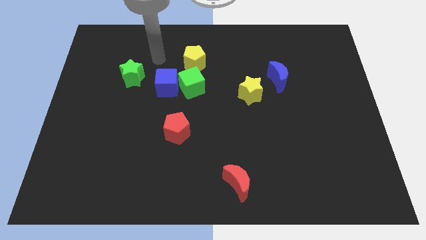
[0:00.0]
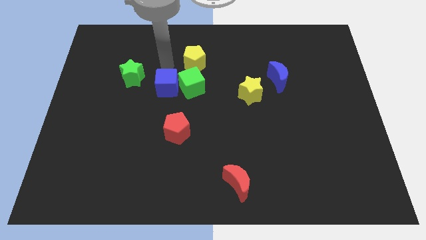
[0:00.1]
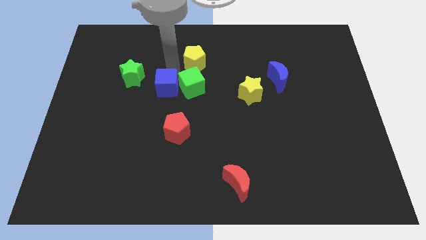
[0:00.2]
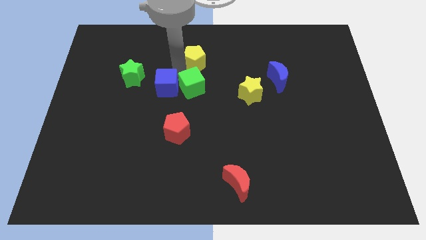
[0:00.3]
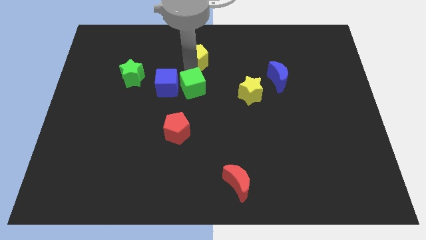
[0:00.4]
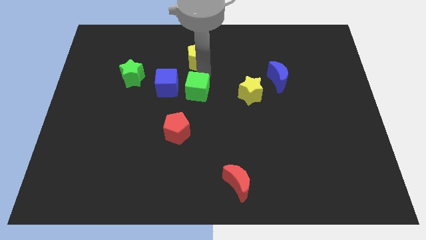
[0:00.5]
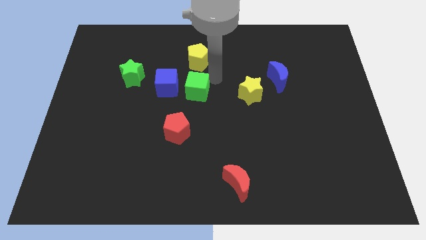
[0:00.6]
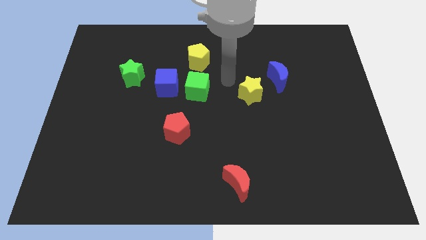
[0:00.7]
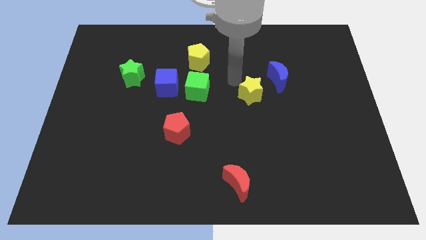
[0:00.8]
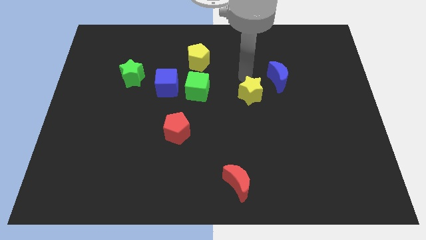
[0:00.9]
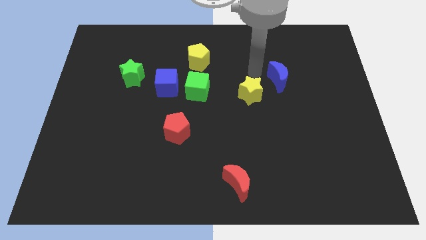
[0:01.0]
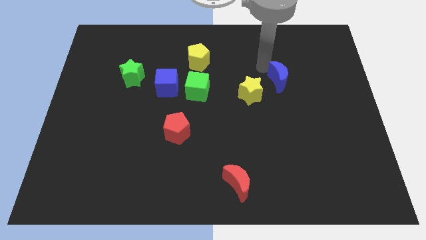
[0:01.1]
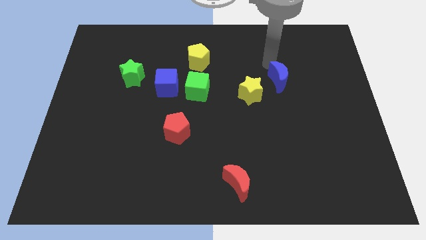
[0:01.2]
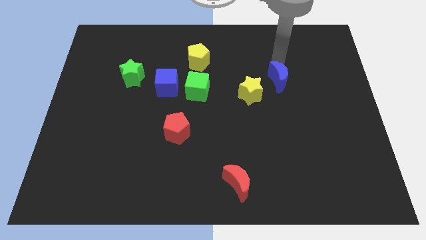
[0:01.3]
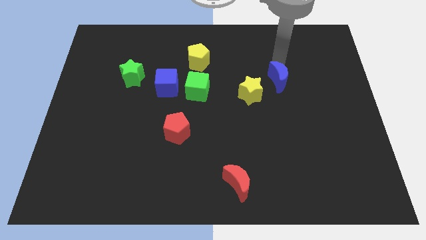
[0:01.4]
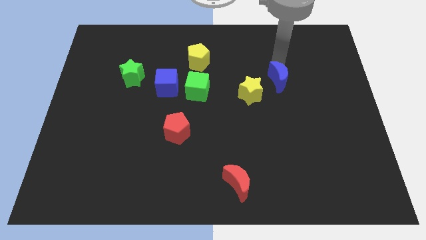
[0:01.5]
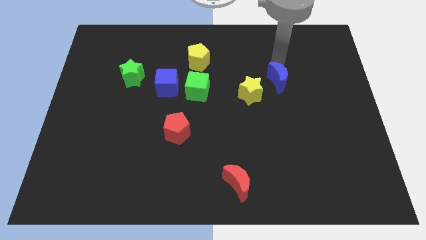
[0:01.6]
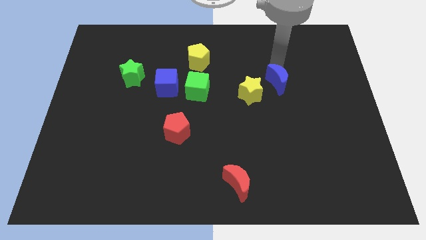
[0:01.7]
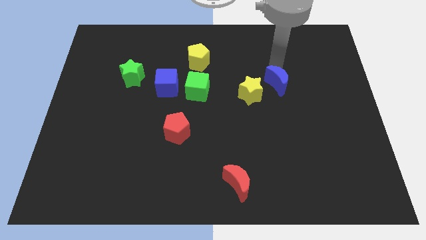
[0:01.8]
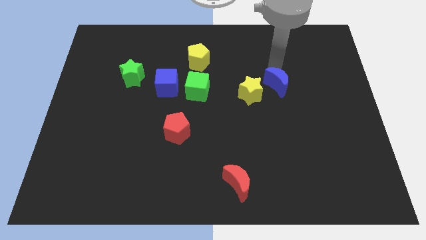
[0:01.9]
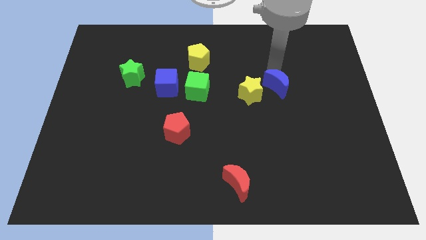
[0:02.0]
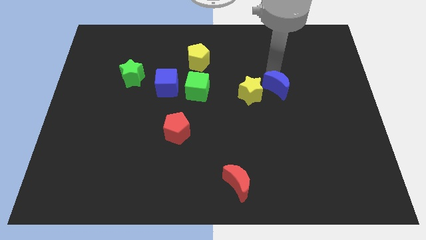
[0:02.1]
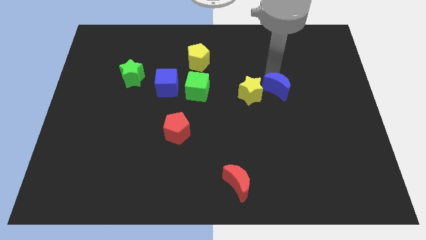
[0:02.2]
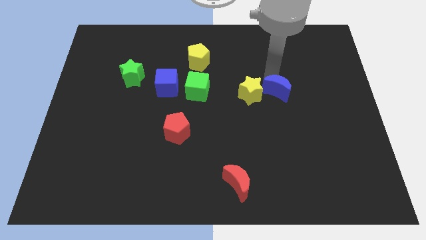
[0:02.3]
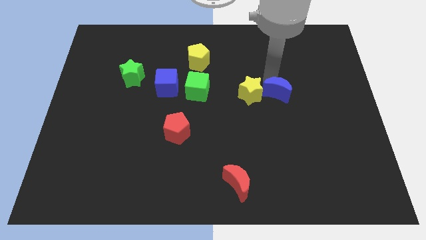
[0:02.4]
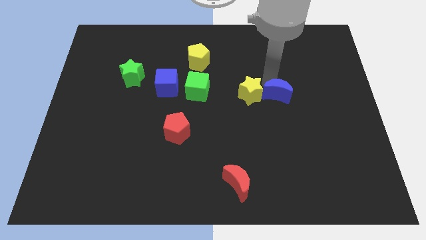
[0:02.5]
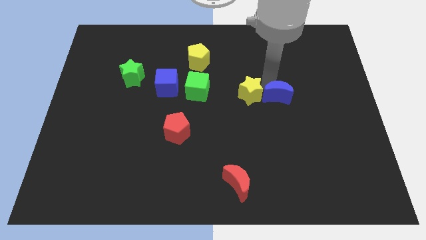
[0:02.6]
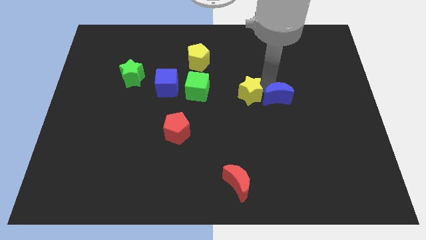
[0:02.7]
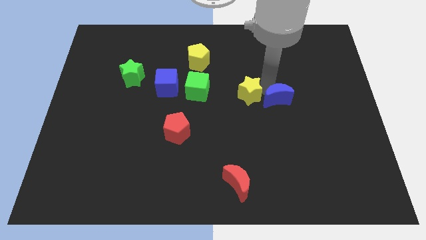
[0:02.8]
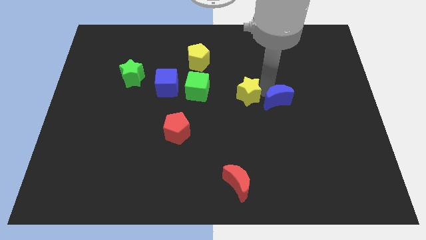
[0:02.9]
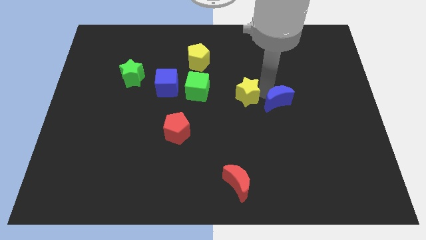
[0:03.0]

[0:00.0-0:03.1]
slightly push the blue moon down

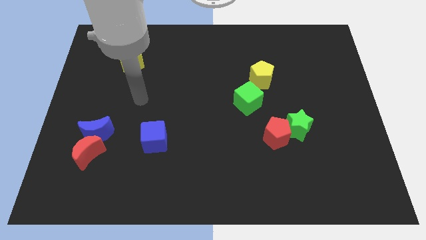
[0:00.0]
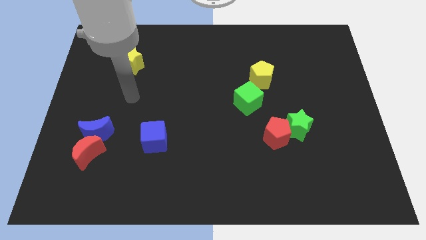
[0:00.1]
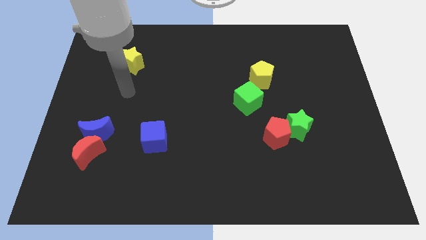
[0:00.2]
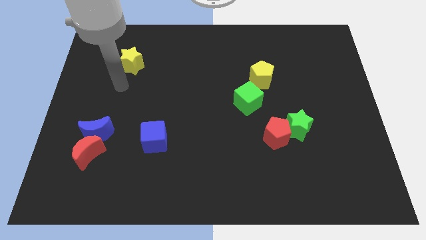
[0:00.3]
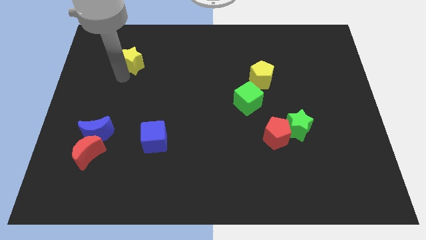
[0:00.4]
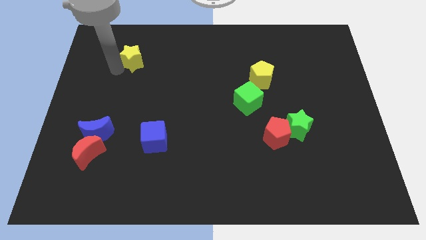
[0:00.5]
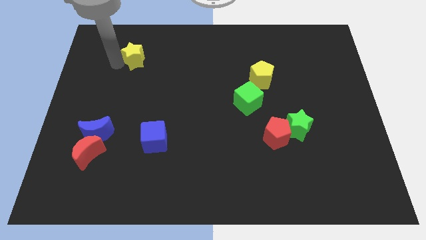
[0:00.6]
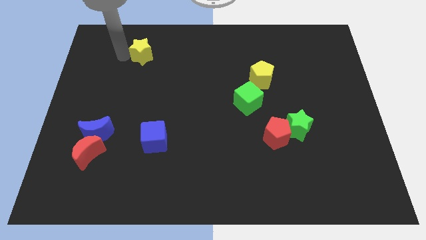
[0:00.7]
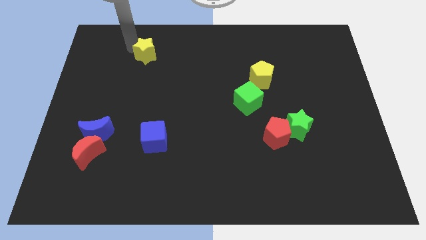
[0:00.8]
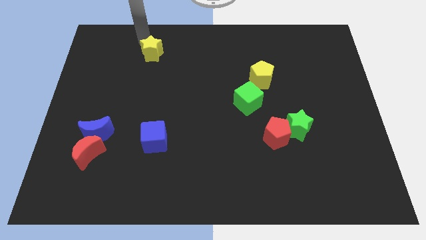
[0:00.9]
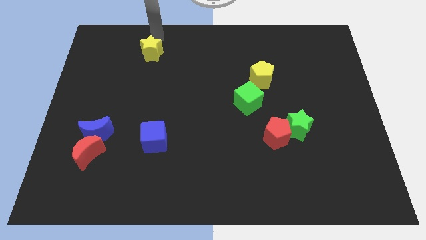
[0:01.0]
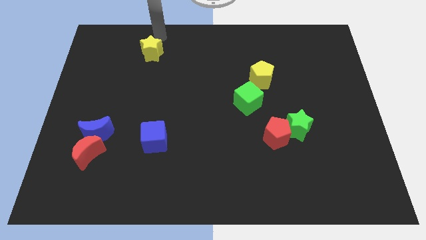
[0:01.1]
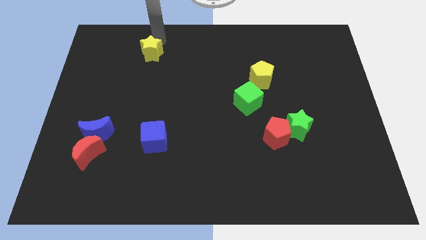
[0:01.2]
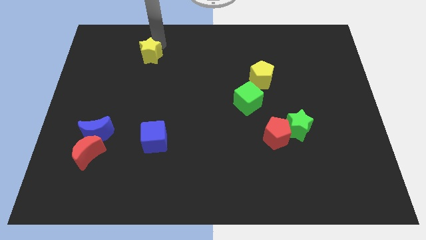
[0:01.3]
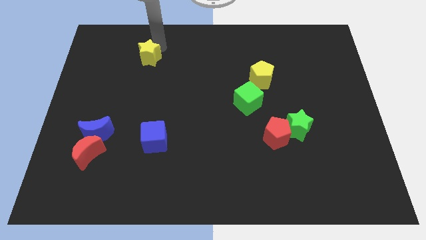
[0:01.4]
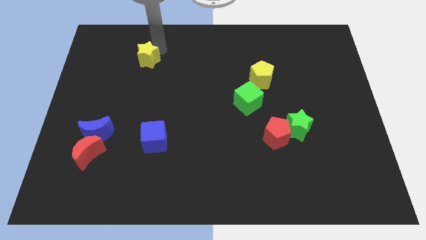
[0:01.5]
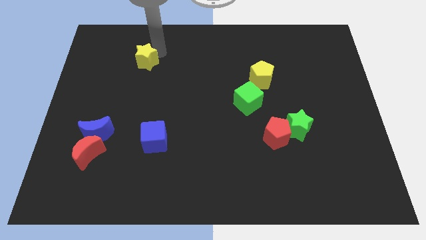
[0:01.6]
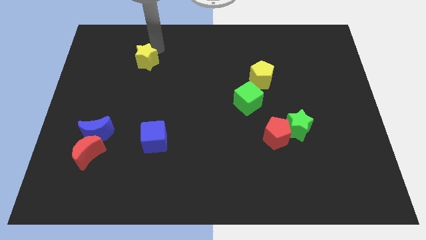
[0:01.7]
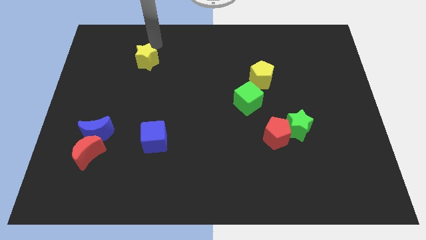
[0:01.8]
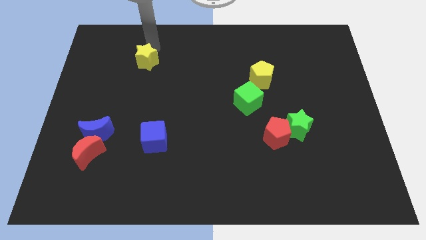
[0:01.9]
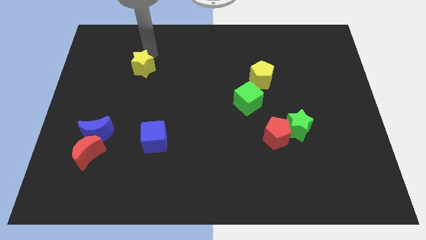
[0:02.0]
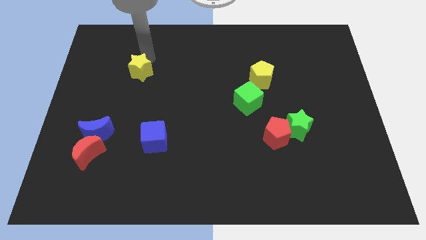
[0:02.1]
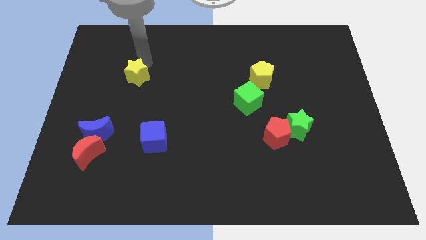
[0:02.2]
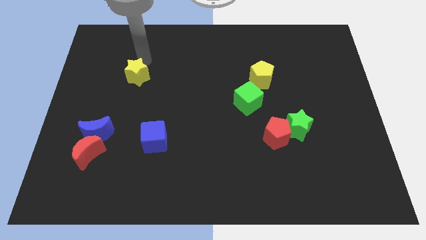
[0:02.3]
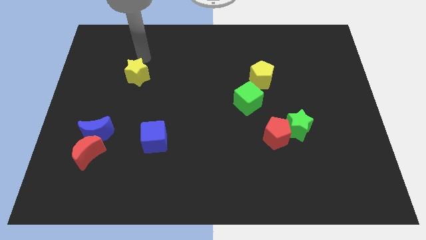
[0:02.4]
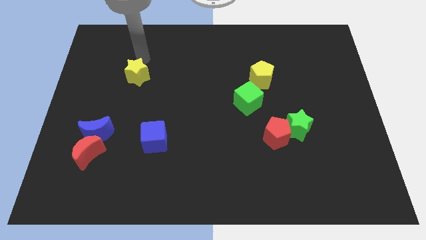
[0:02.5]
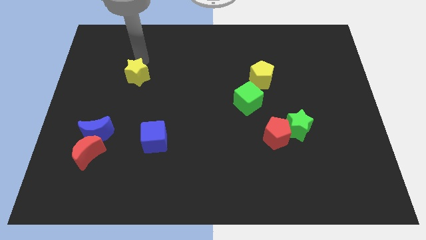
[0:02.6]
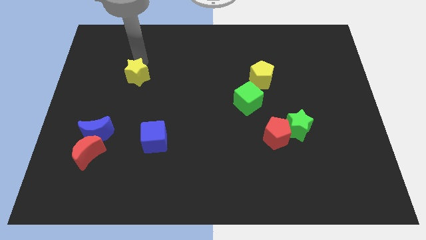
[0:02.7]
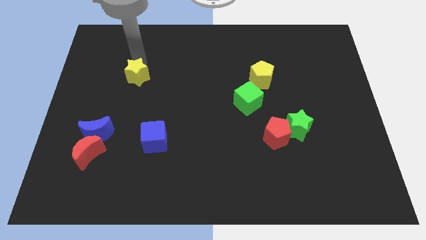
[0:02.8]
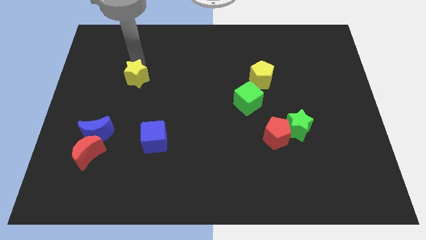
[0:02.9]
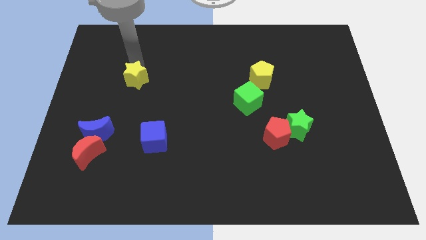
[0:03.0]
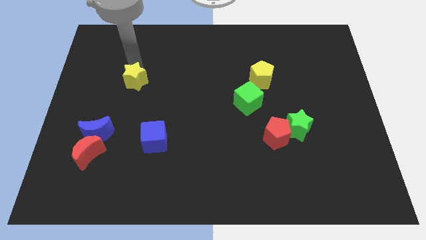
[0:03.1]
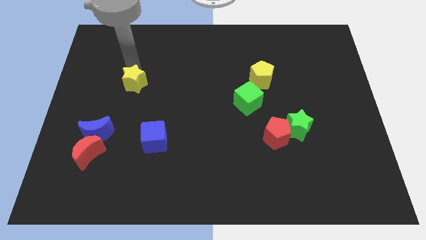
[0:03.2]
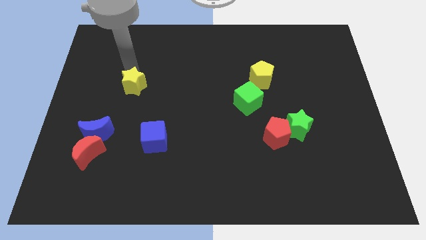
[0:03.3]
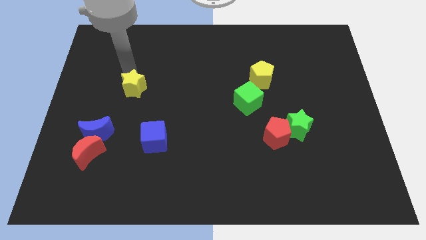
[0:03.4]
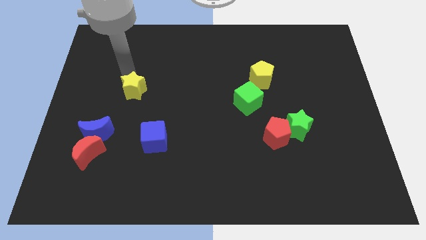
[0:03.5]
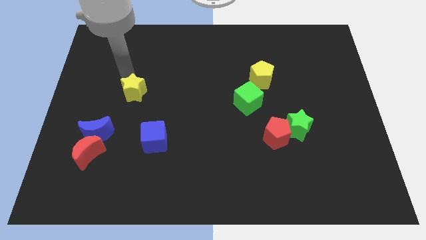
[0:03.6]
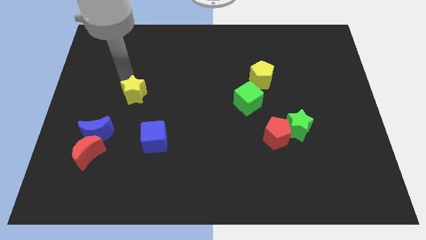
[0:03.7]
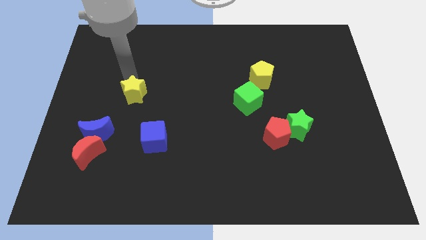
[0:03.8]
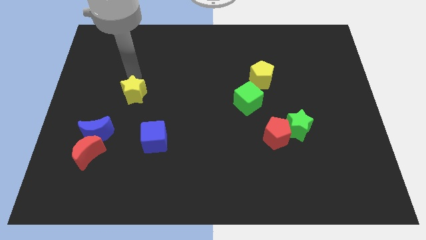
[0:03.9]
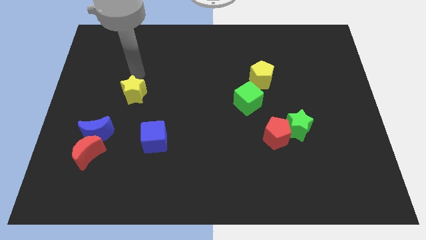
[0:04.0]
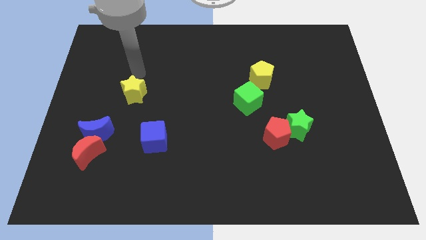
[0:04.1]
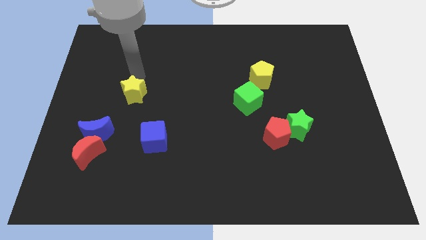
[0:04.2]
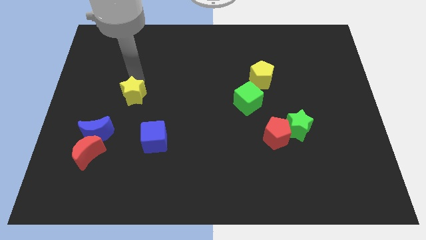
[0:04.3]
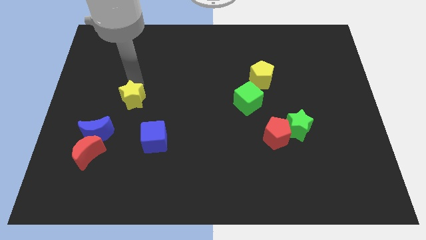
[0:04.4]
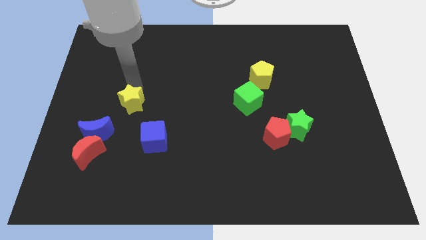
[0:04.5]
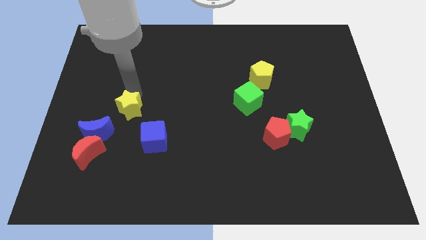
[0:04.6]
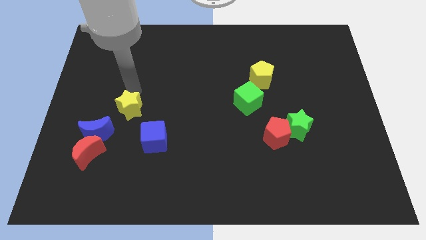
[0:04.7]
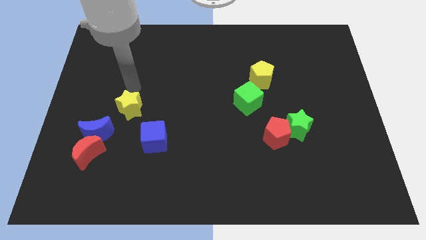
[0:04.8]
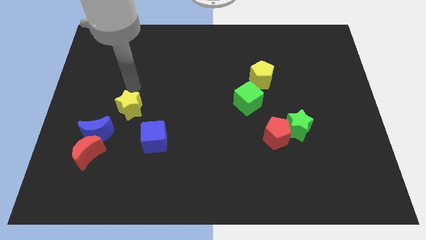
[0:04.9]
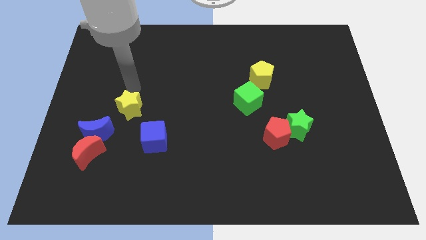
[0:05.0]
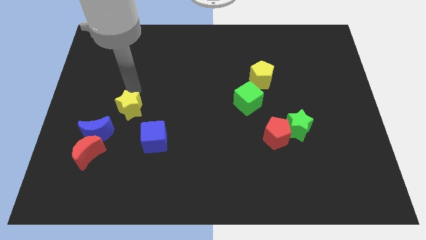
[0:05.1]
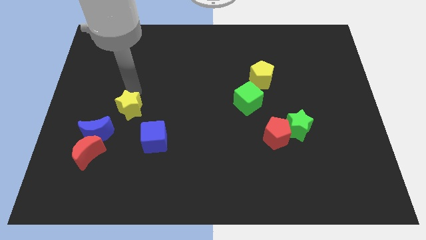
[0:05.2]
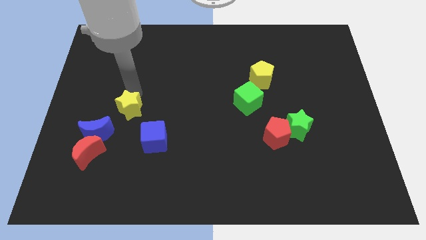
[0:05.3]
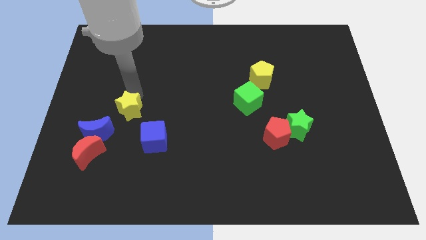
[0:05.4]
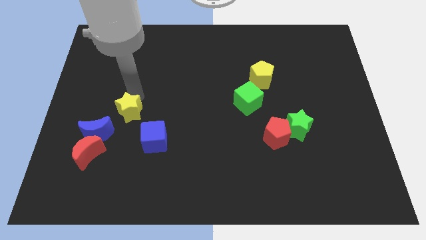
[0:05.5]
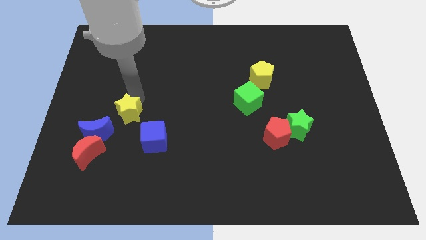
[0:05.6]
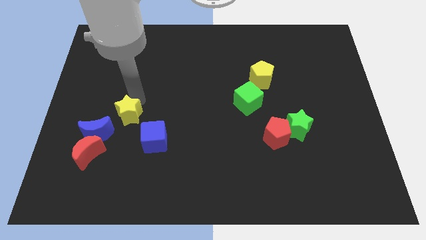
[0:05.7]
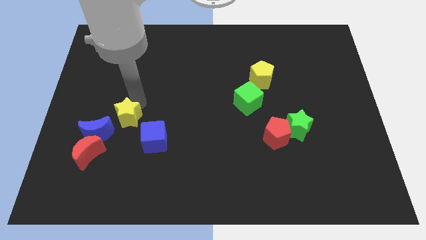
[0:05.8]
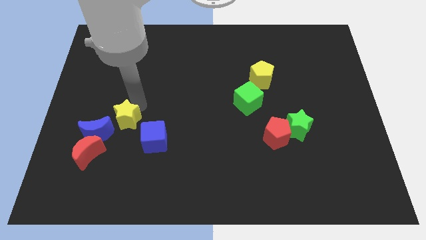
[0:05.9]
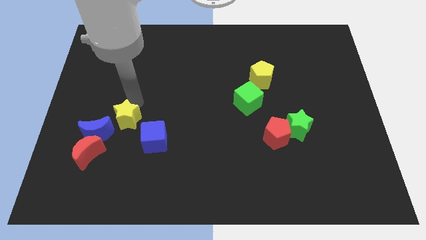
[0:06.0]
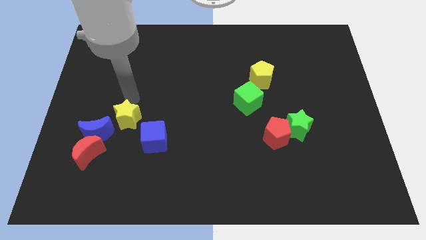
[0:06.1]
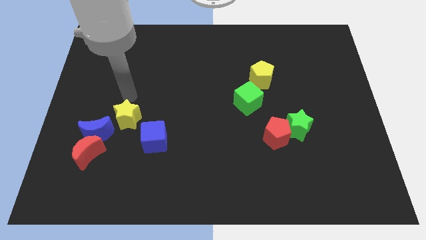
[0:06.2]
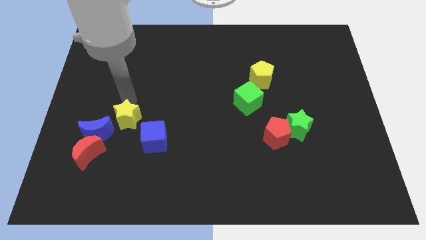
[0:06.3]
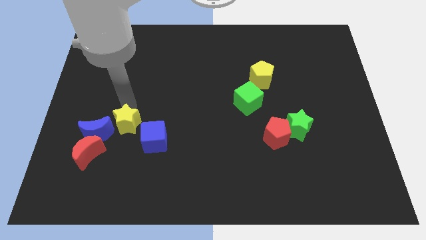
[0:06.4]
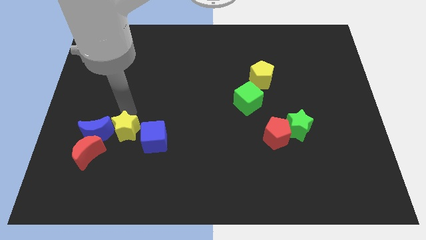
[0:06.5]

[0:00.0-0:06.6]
move the yellow star down
